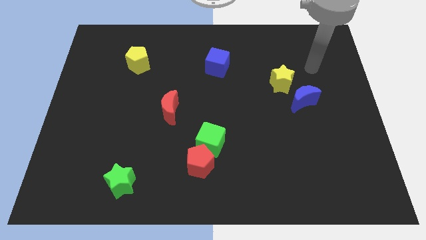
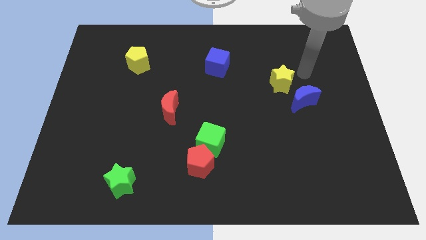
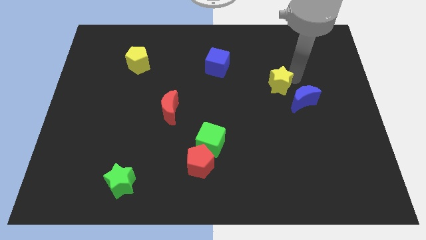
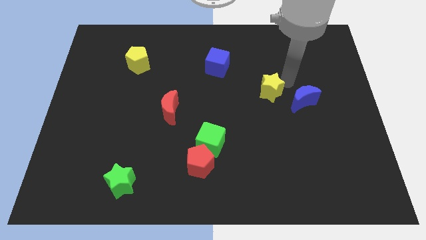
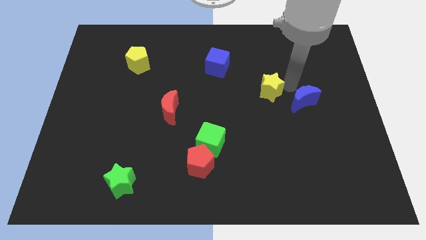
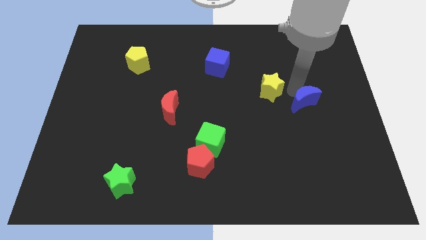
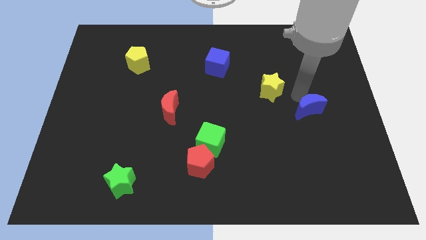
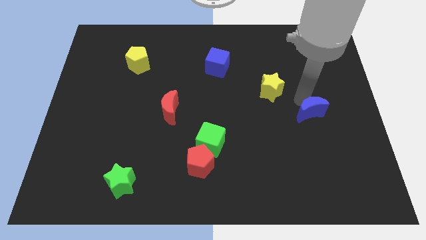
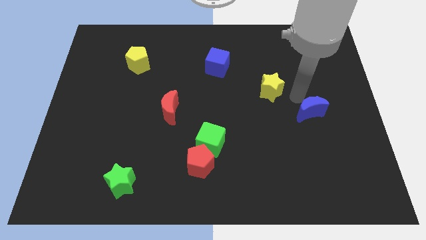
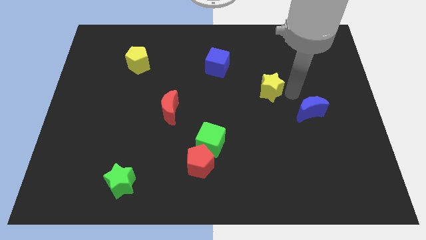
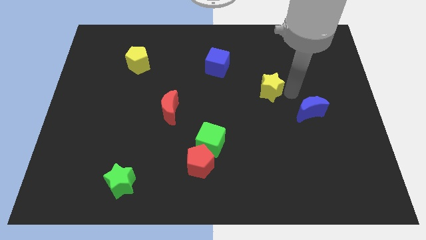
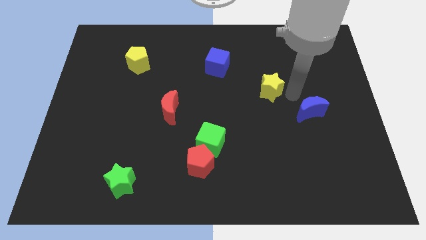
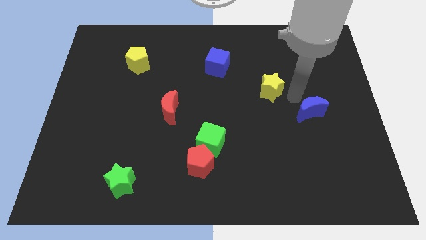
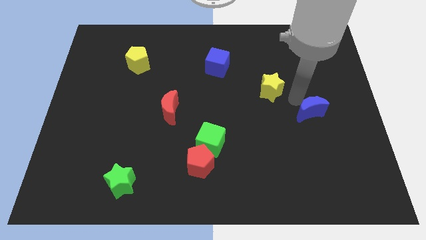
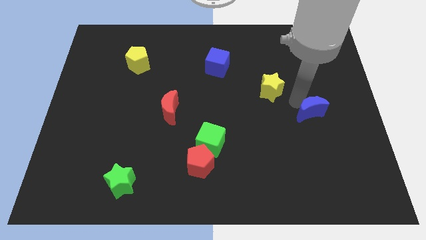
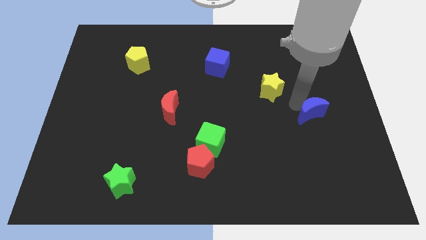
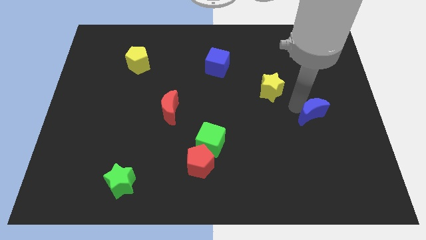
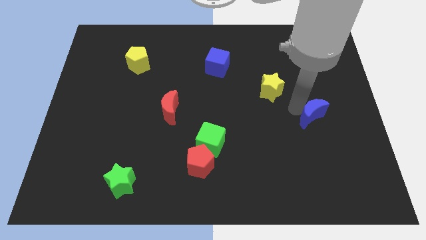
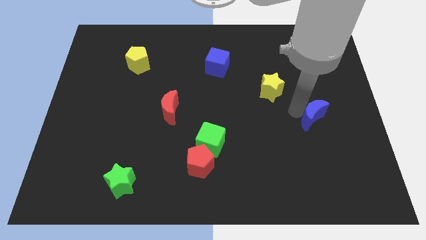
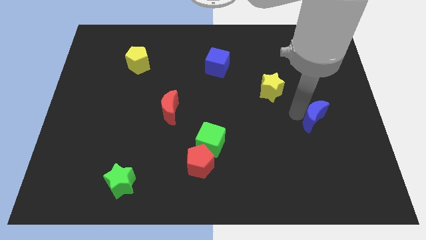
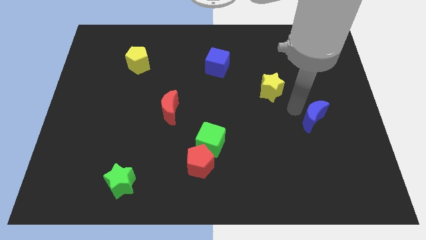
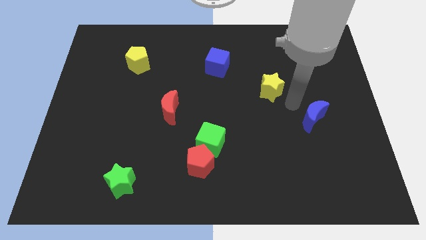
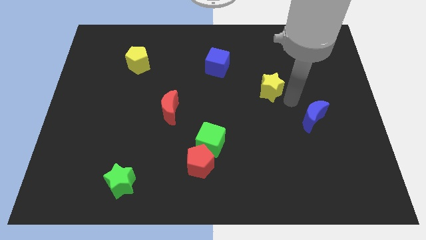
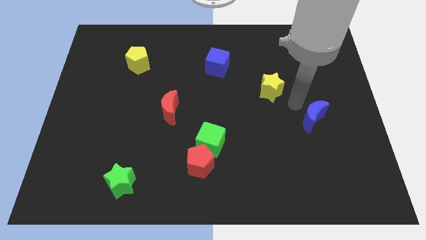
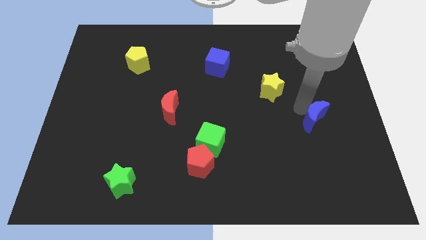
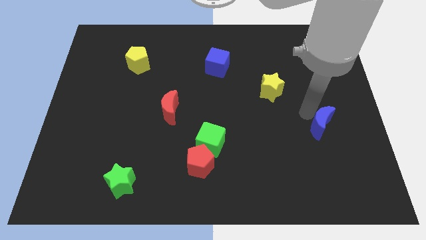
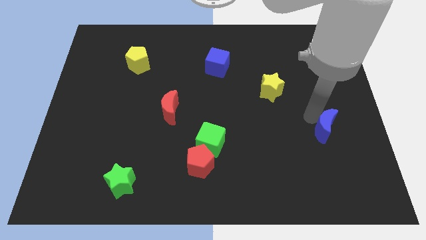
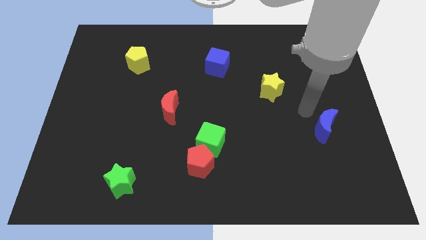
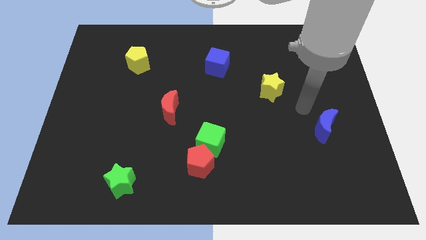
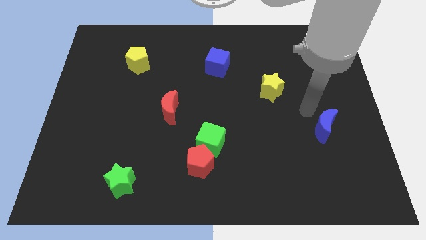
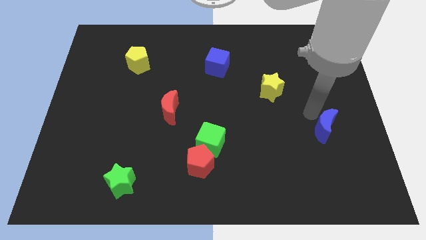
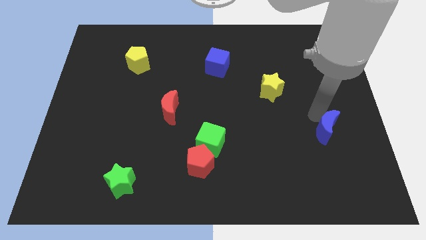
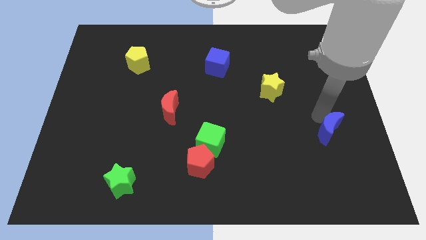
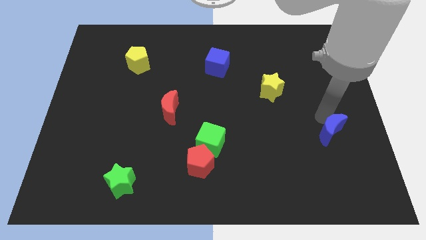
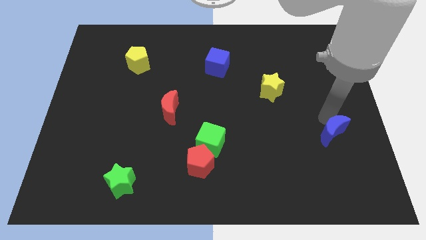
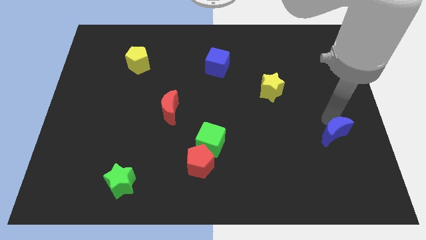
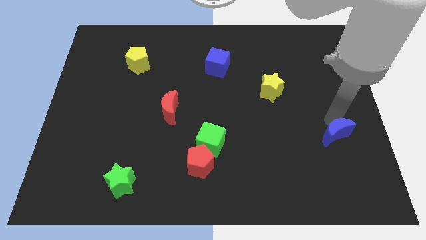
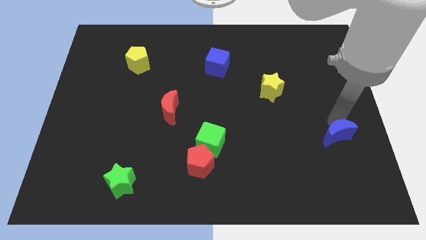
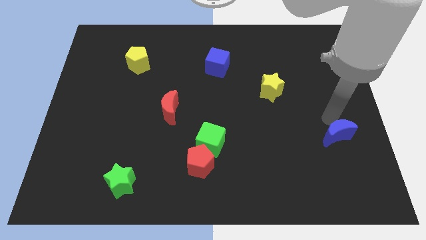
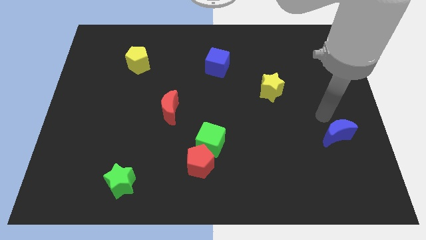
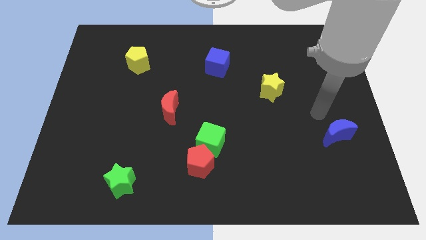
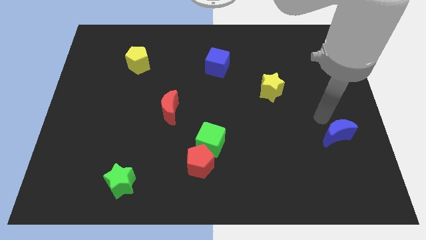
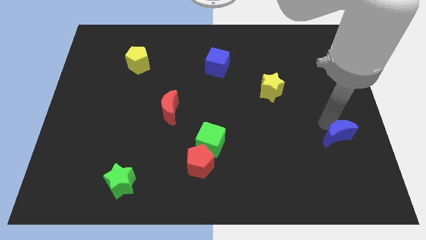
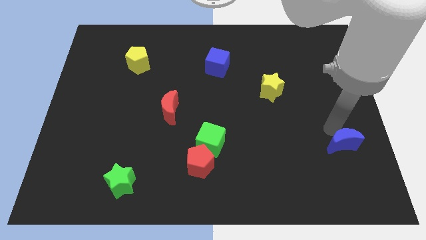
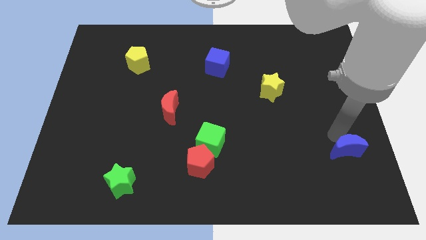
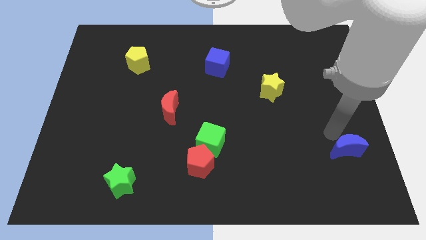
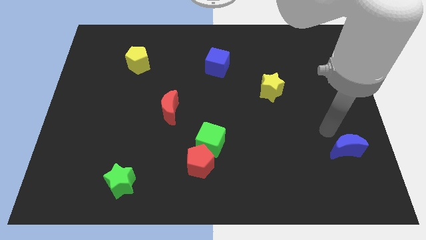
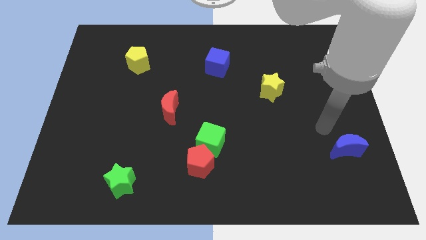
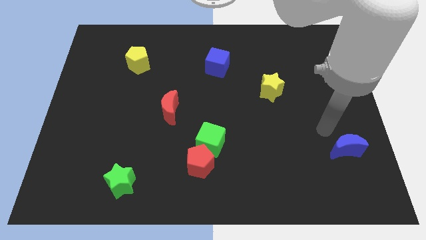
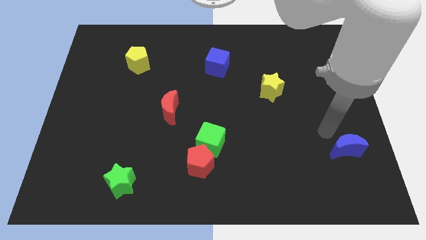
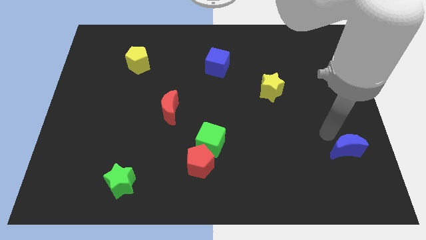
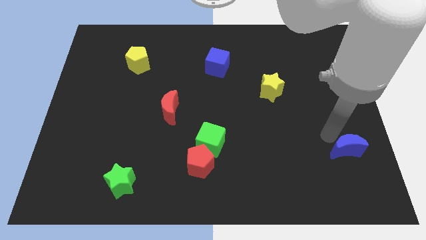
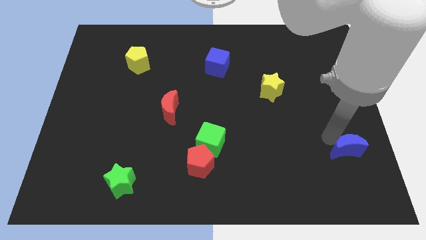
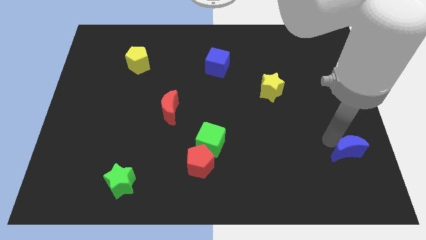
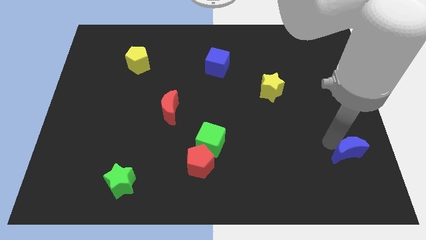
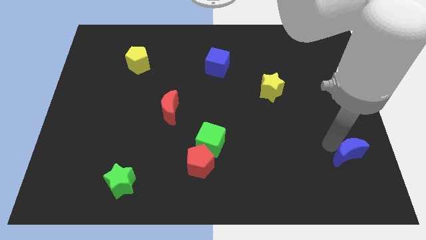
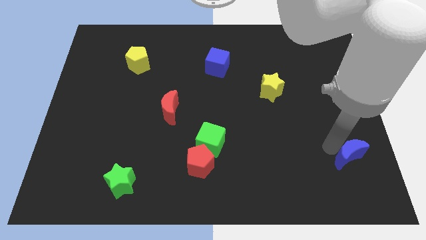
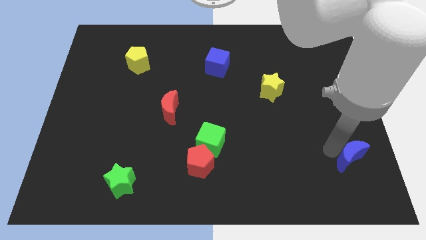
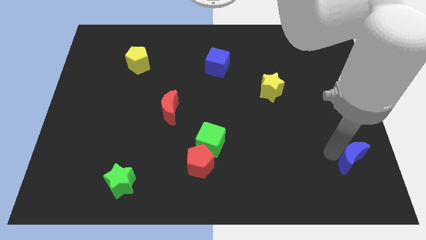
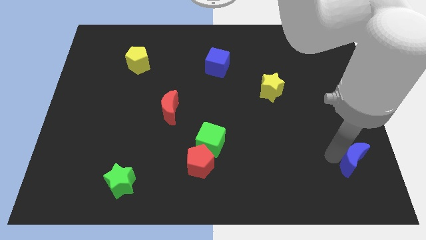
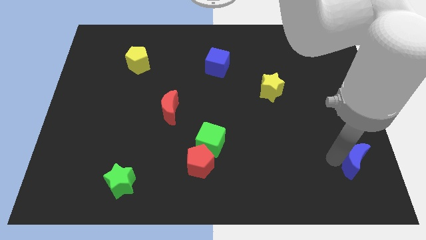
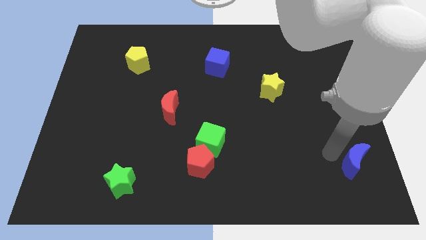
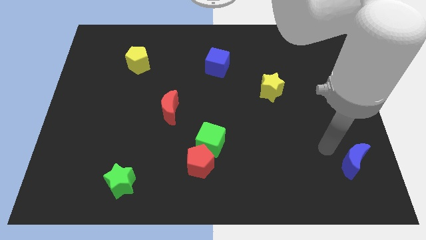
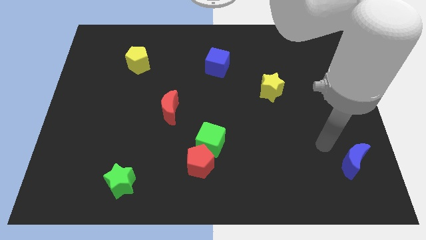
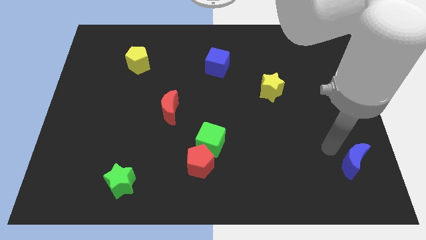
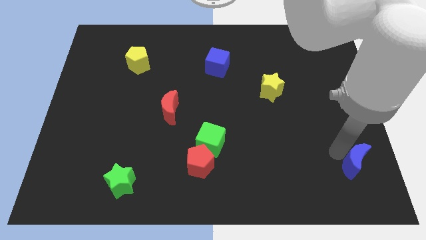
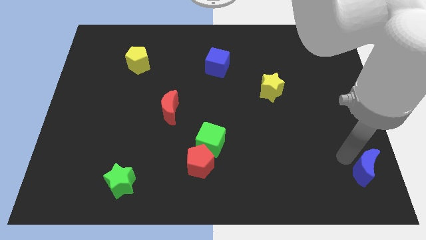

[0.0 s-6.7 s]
push the blue moon to the bottom right corner

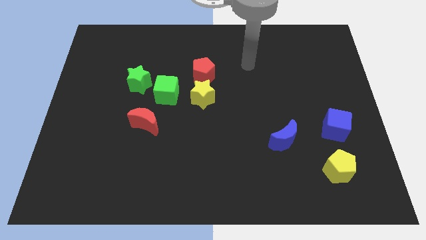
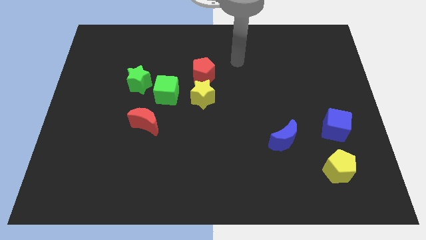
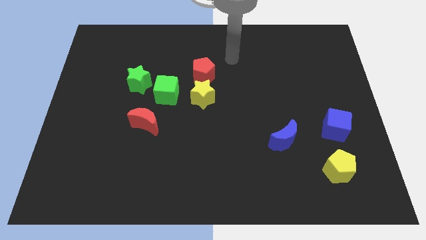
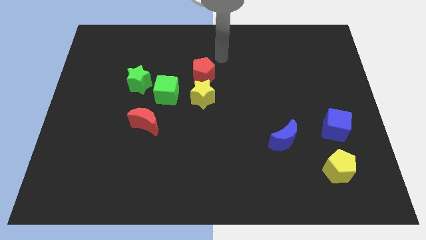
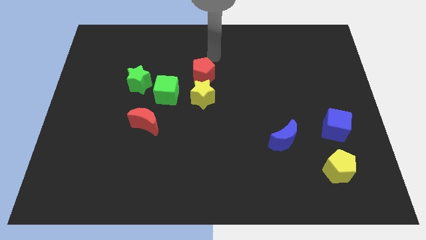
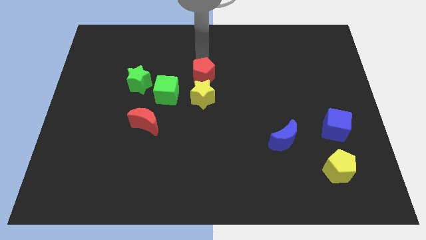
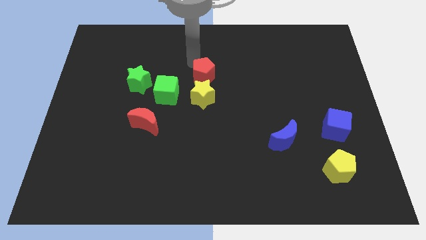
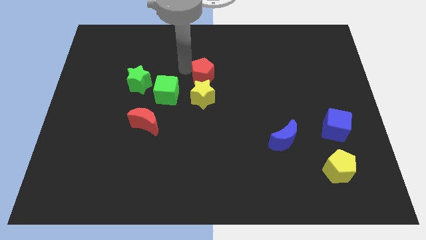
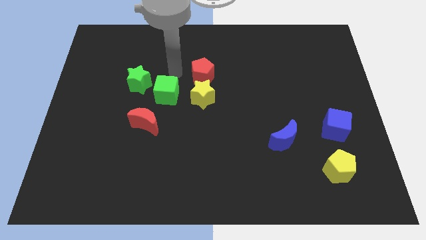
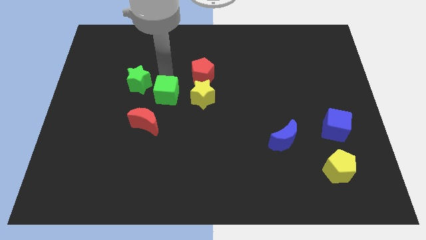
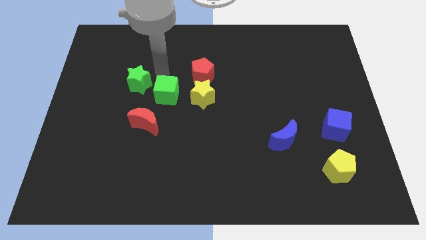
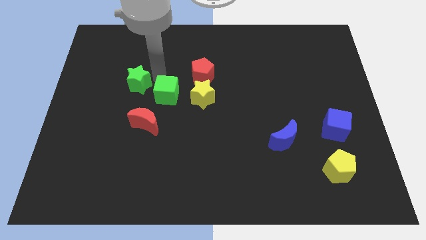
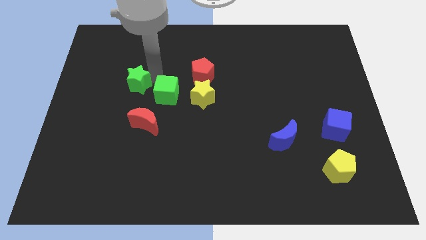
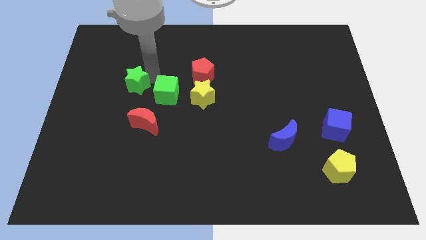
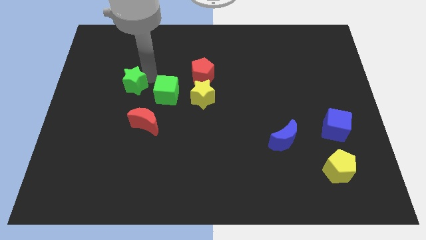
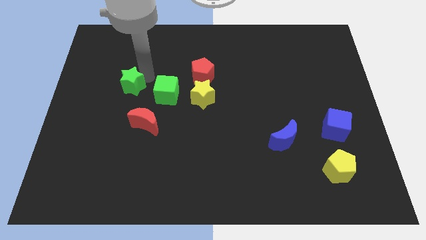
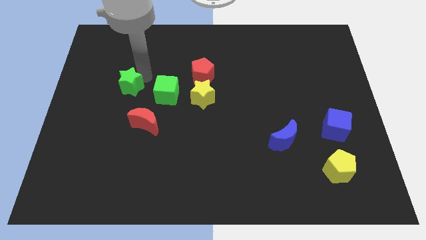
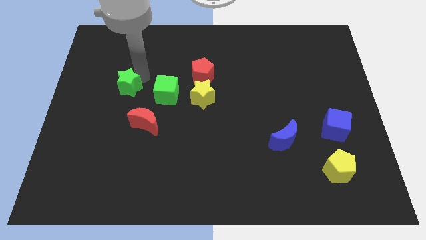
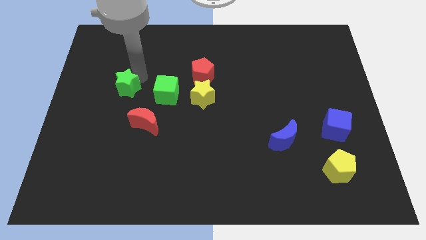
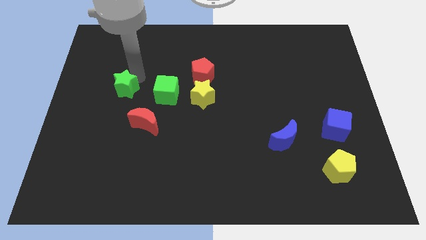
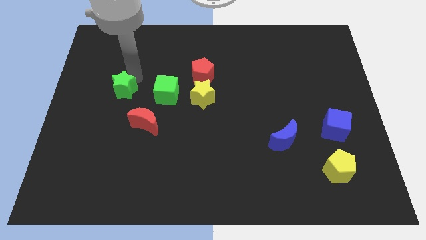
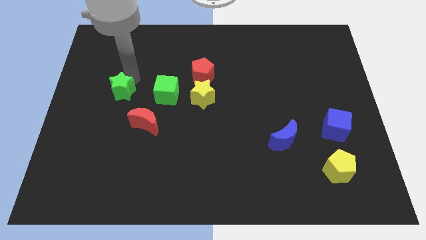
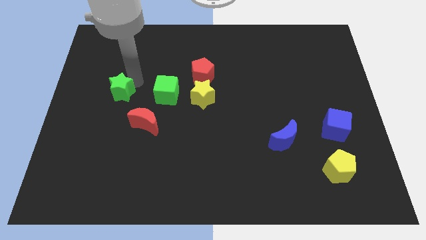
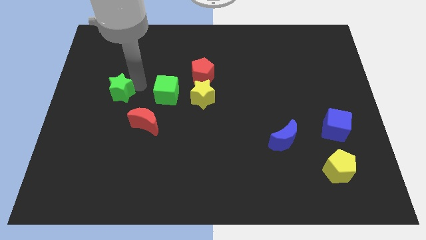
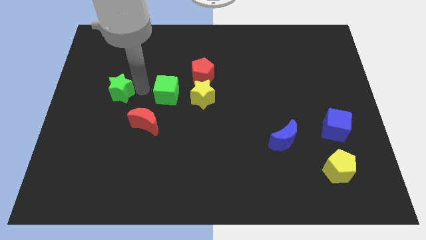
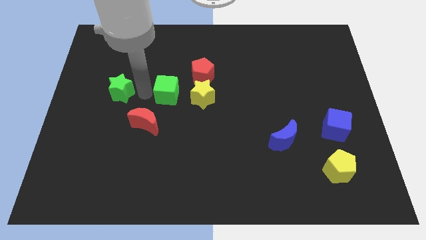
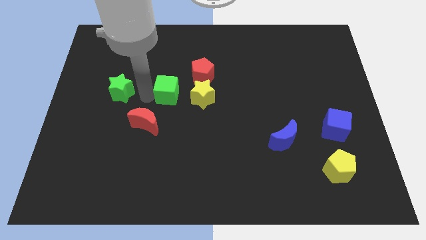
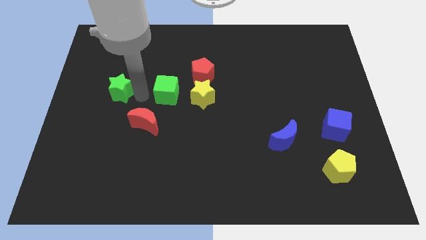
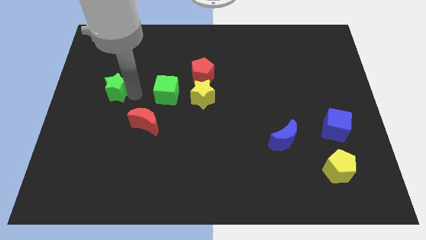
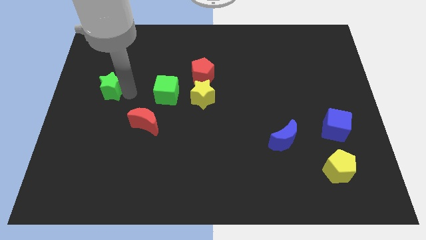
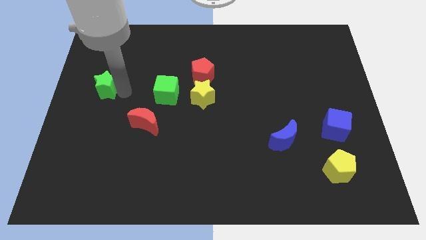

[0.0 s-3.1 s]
move the green star to the center left
